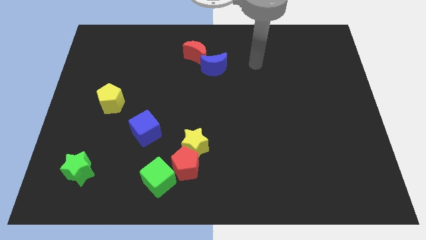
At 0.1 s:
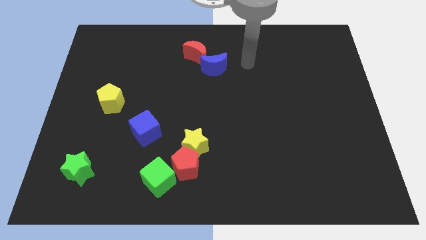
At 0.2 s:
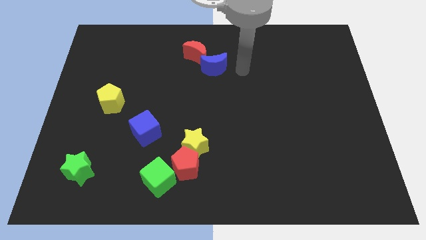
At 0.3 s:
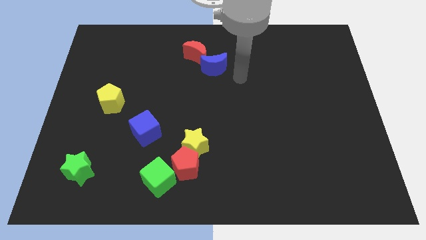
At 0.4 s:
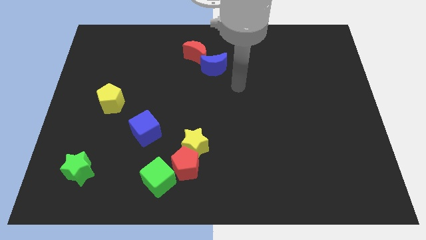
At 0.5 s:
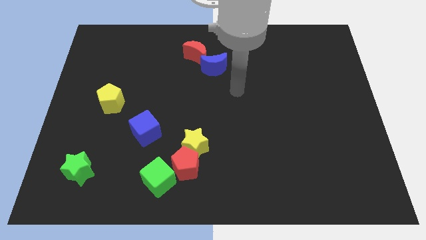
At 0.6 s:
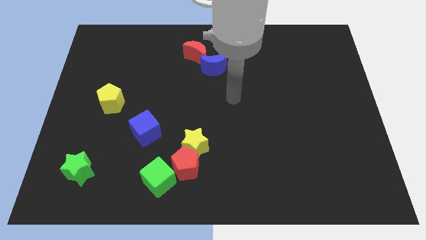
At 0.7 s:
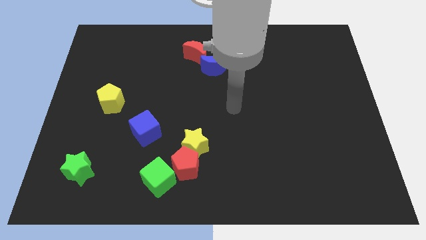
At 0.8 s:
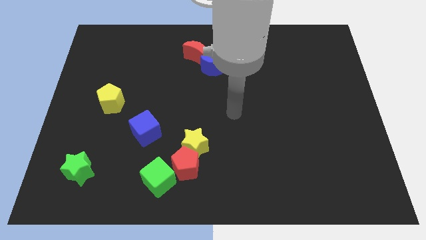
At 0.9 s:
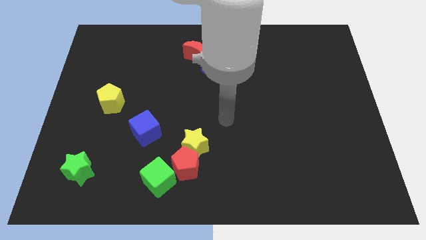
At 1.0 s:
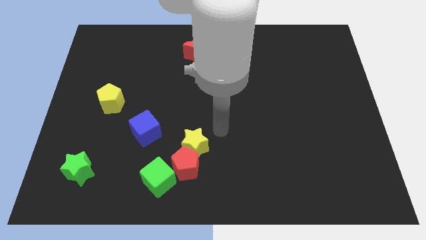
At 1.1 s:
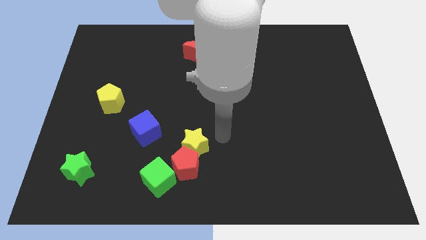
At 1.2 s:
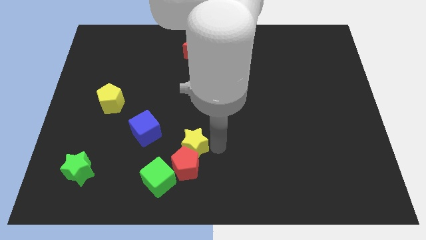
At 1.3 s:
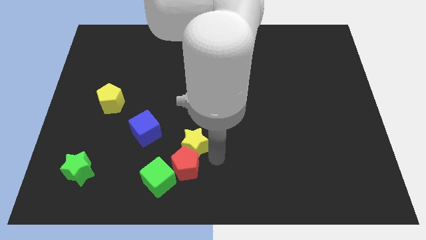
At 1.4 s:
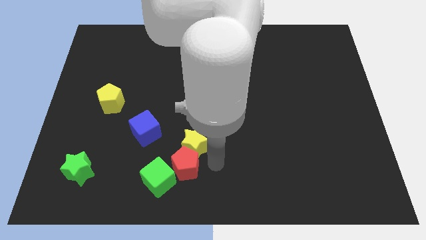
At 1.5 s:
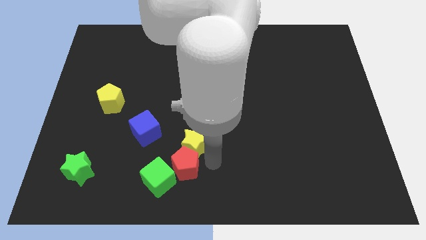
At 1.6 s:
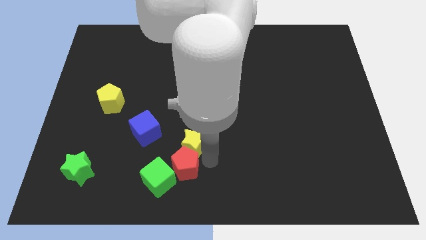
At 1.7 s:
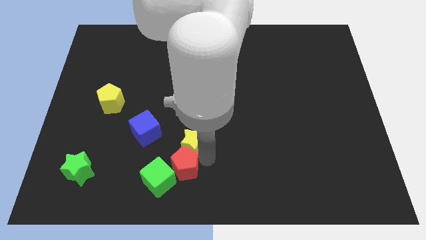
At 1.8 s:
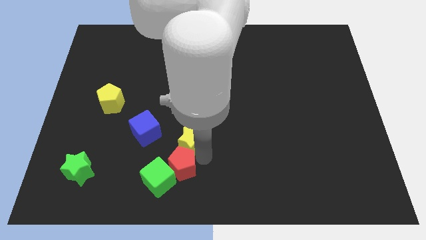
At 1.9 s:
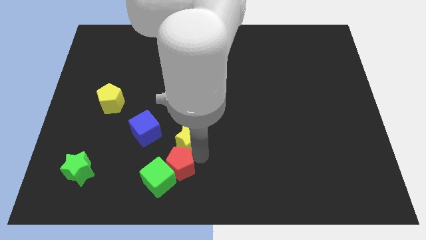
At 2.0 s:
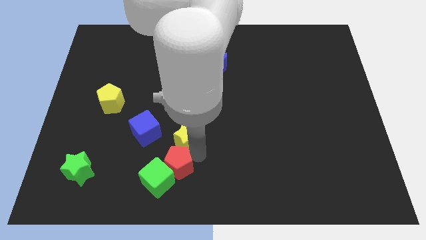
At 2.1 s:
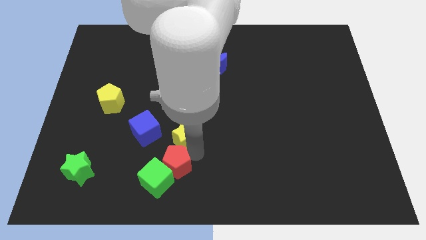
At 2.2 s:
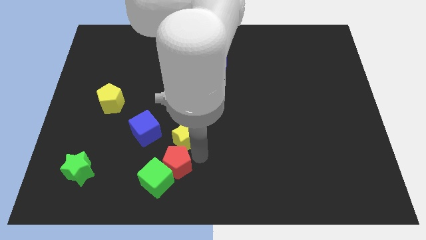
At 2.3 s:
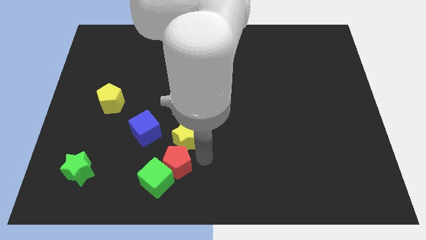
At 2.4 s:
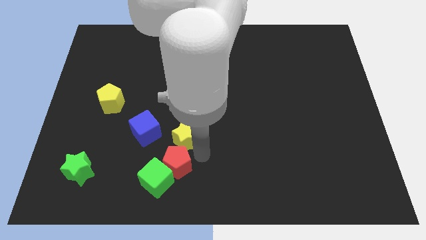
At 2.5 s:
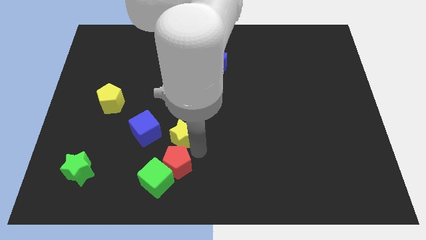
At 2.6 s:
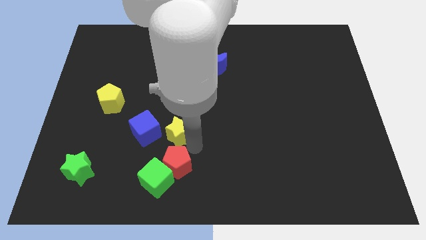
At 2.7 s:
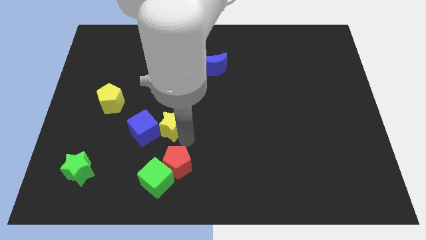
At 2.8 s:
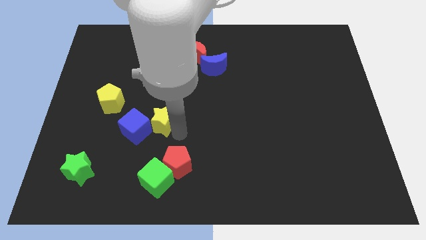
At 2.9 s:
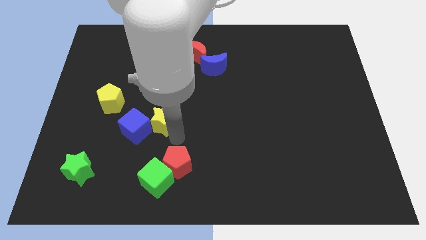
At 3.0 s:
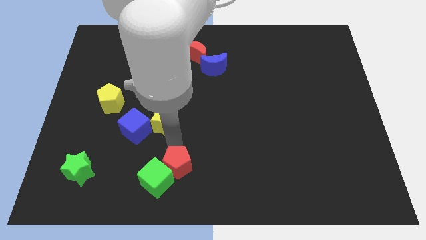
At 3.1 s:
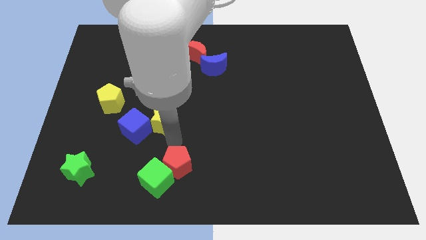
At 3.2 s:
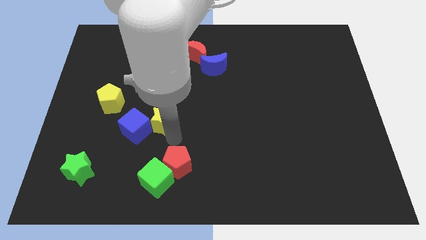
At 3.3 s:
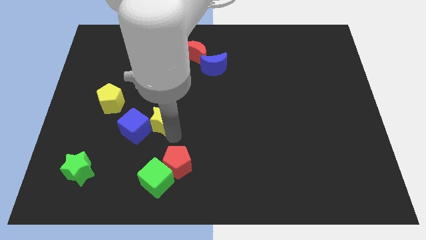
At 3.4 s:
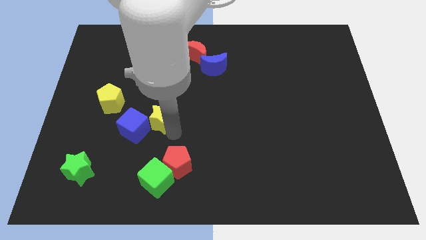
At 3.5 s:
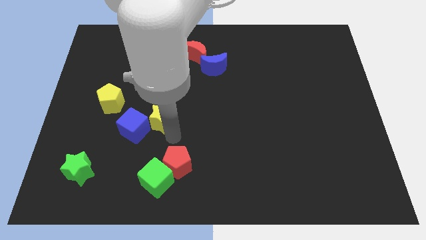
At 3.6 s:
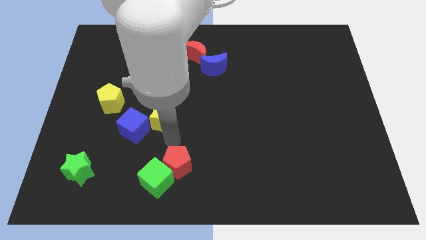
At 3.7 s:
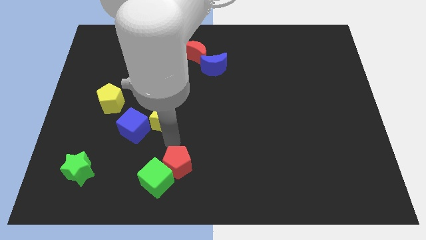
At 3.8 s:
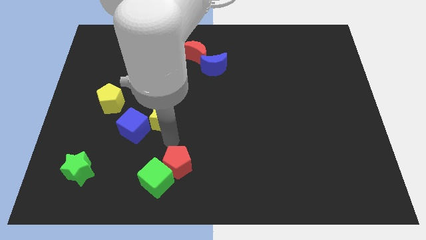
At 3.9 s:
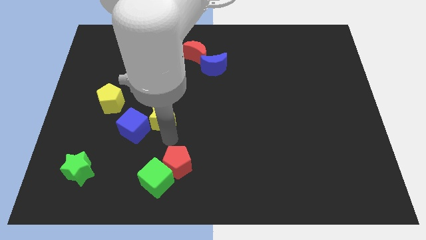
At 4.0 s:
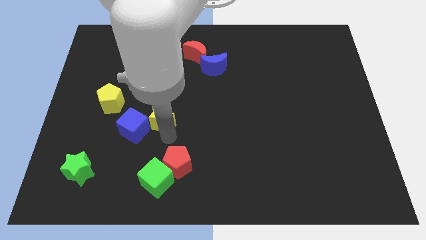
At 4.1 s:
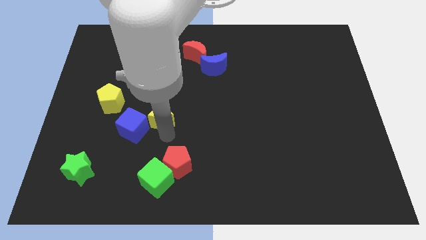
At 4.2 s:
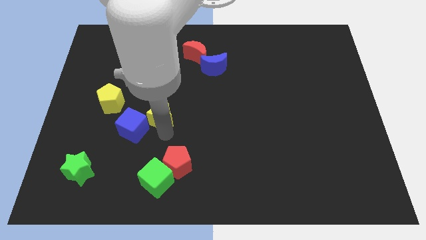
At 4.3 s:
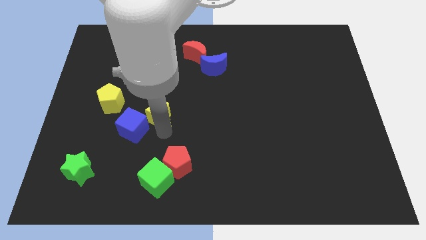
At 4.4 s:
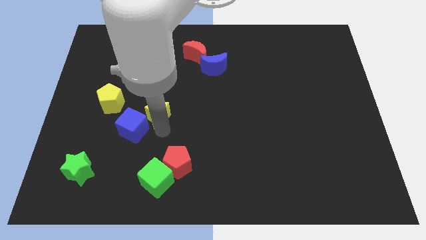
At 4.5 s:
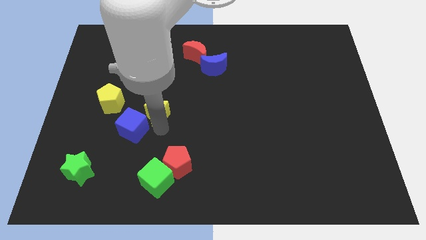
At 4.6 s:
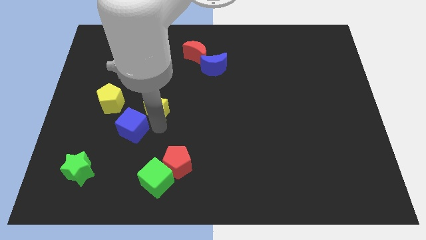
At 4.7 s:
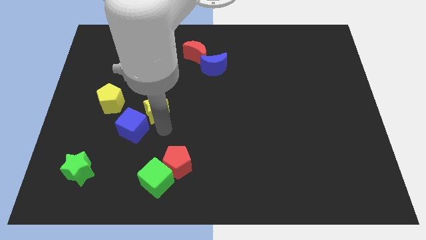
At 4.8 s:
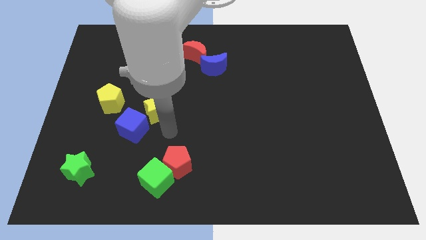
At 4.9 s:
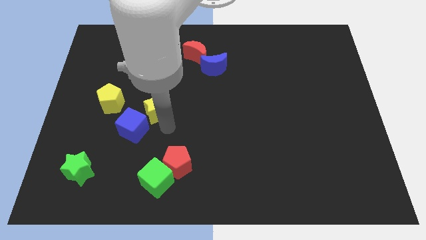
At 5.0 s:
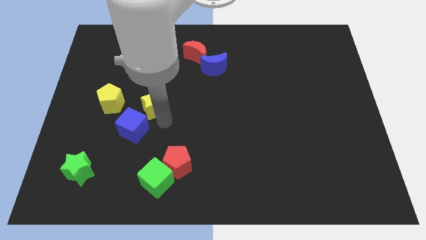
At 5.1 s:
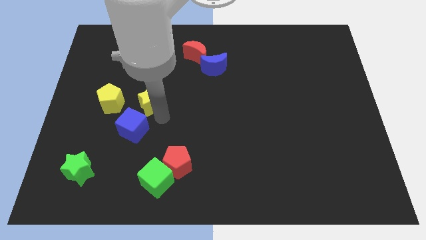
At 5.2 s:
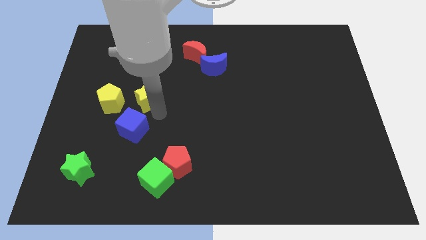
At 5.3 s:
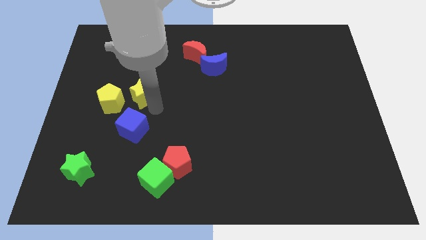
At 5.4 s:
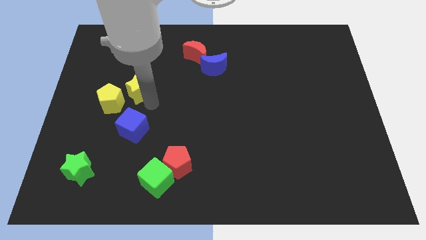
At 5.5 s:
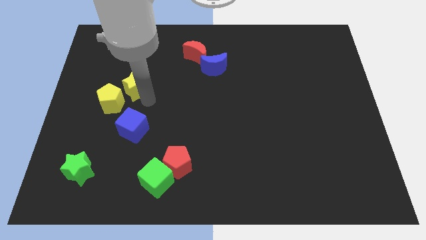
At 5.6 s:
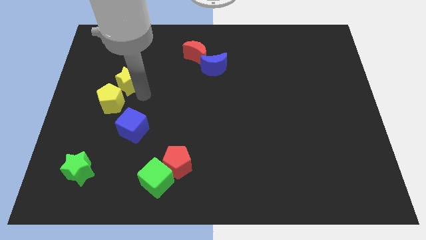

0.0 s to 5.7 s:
slide the yellow star to the top of the yellow pentagon

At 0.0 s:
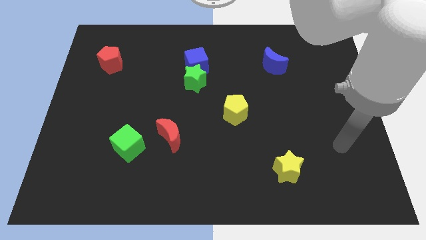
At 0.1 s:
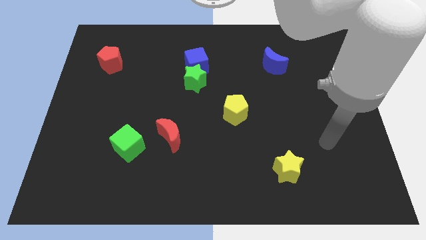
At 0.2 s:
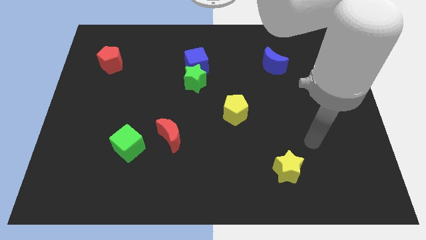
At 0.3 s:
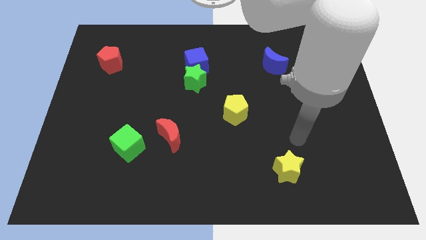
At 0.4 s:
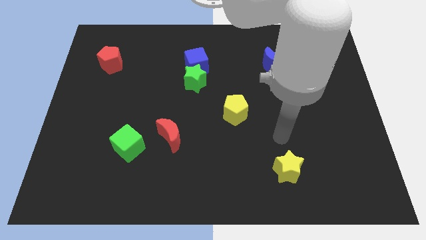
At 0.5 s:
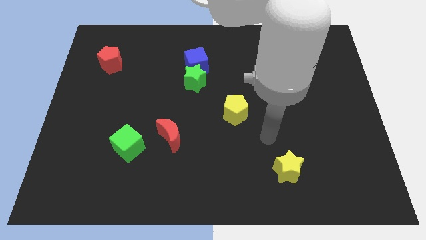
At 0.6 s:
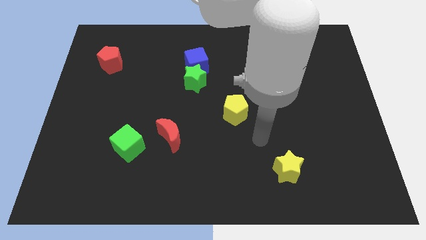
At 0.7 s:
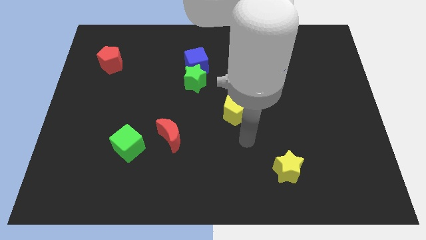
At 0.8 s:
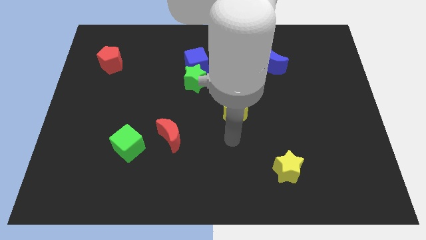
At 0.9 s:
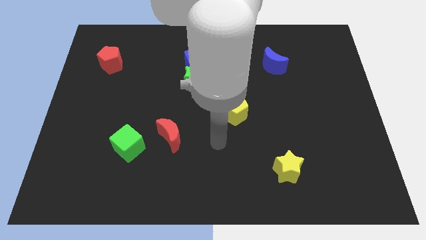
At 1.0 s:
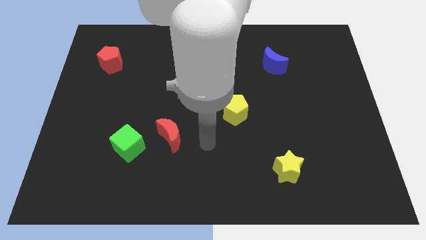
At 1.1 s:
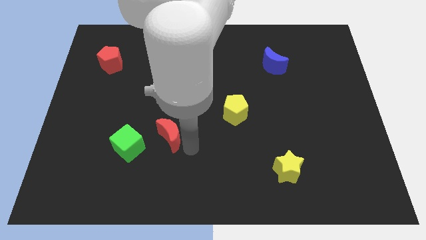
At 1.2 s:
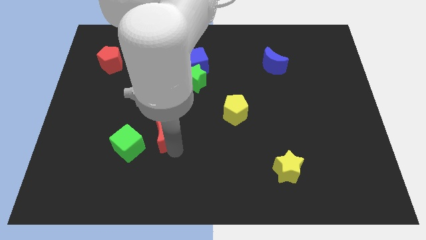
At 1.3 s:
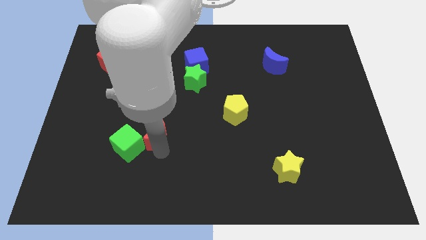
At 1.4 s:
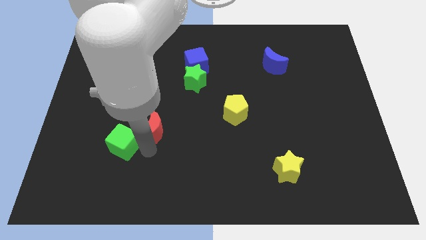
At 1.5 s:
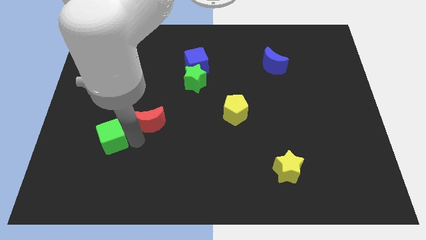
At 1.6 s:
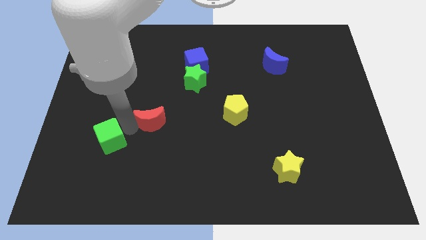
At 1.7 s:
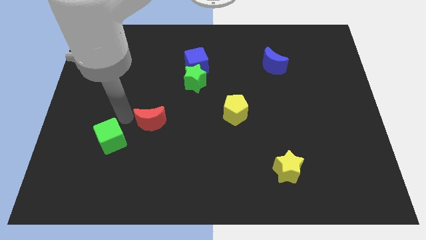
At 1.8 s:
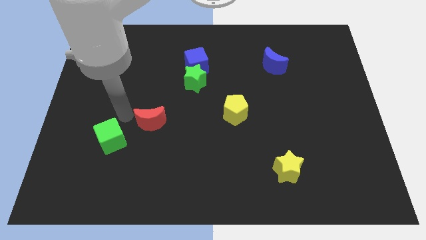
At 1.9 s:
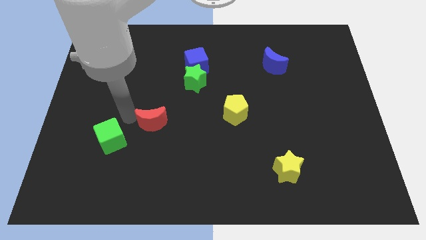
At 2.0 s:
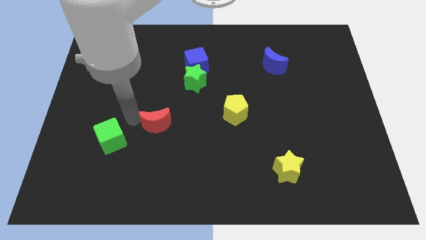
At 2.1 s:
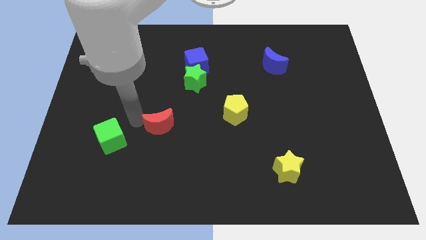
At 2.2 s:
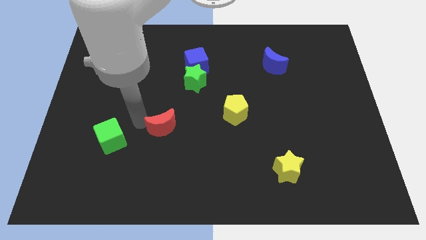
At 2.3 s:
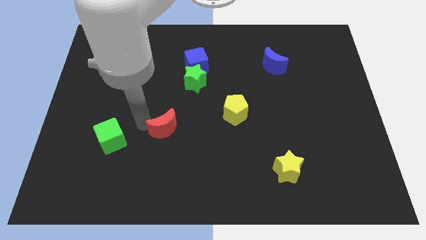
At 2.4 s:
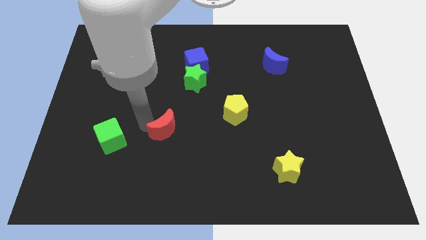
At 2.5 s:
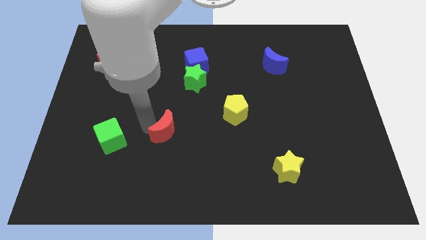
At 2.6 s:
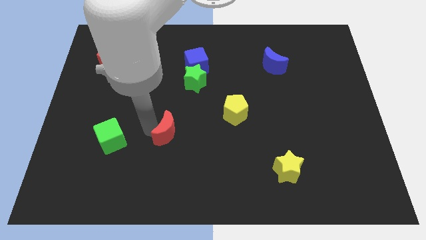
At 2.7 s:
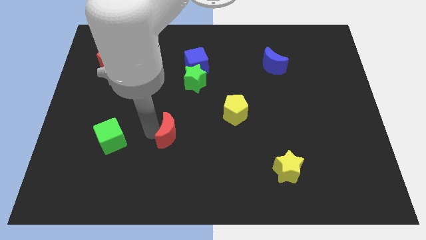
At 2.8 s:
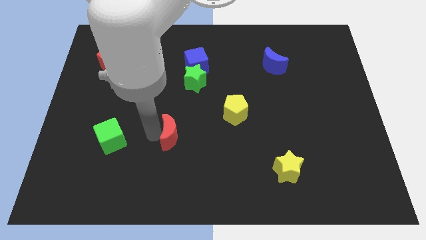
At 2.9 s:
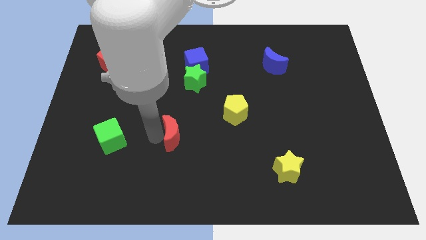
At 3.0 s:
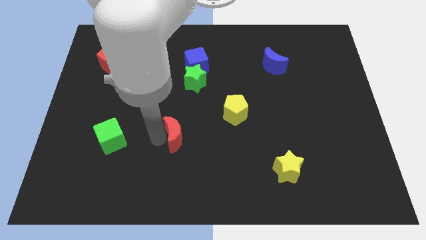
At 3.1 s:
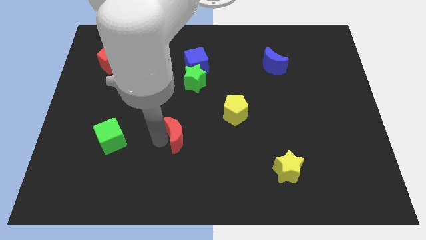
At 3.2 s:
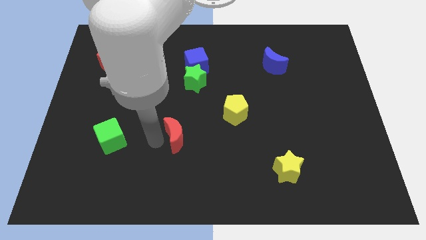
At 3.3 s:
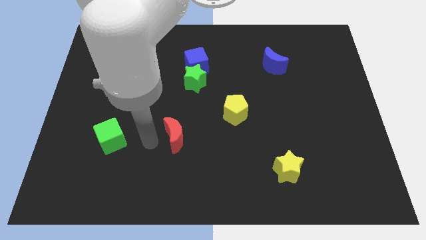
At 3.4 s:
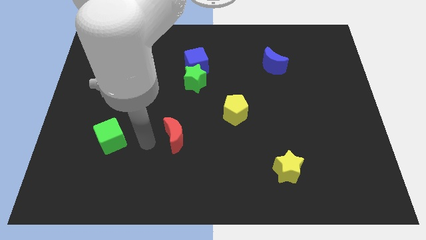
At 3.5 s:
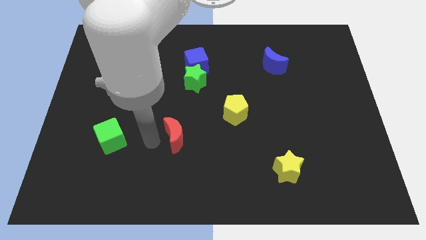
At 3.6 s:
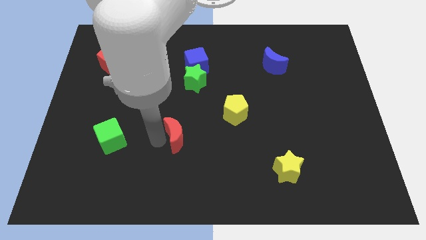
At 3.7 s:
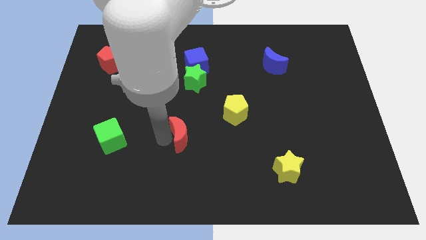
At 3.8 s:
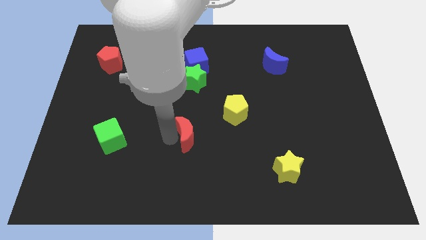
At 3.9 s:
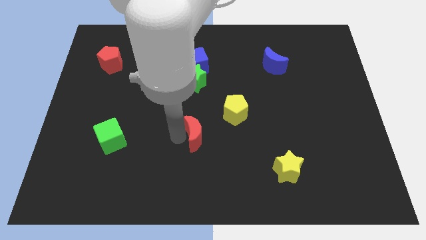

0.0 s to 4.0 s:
slide the red moon to the bottom left of the yellow pentagon
